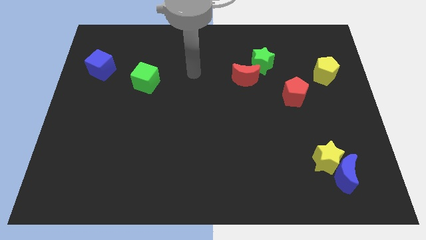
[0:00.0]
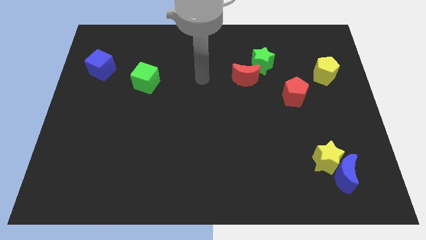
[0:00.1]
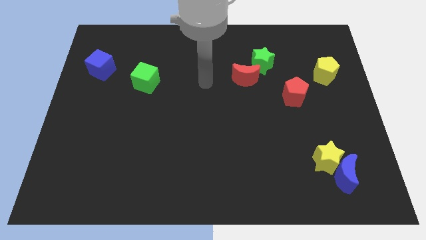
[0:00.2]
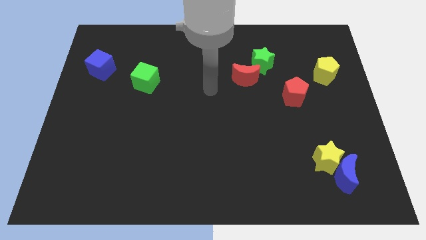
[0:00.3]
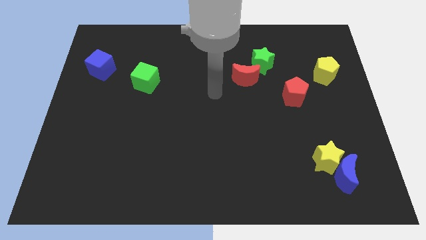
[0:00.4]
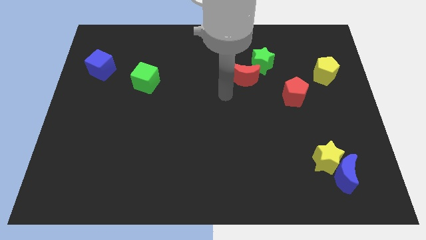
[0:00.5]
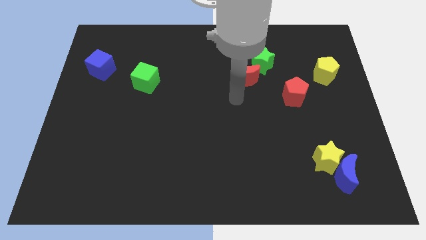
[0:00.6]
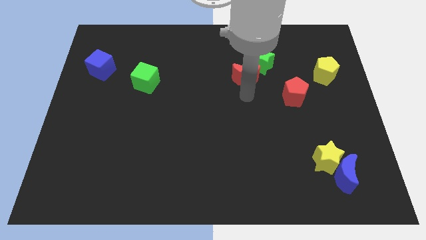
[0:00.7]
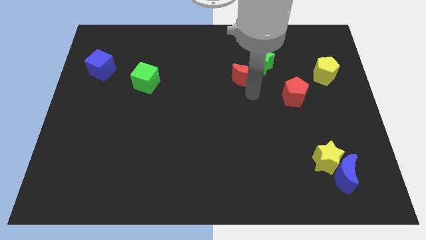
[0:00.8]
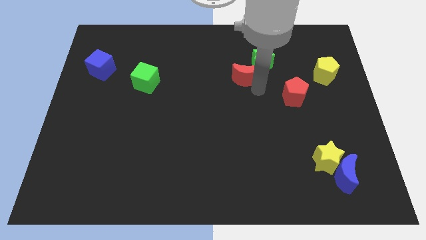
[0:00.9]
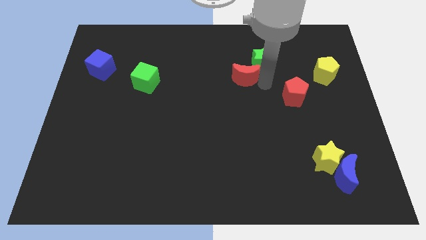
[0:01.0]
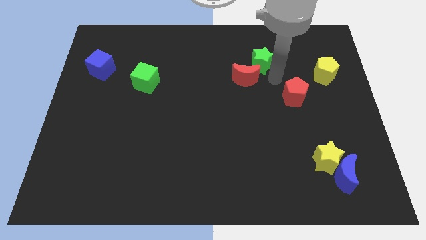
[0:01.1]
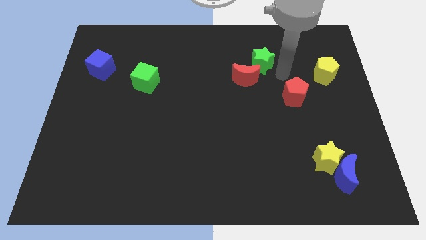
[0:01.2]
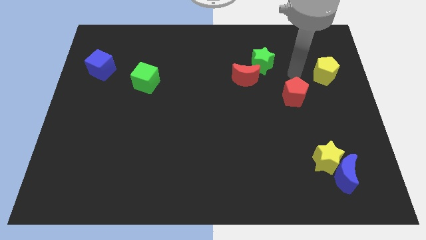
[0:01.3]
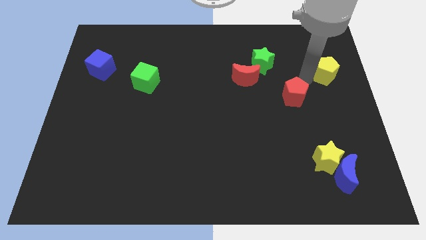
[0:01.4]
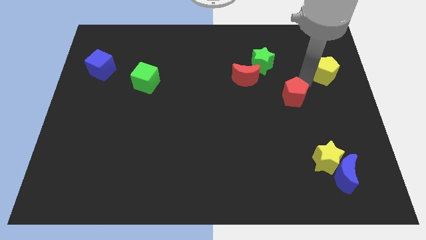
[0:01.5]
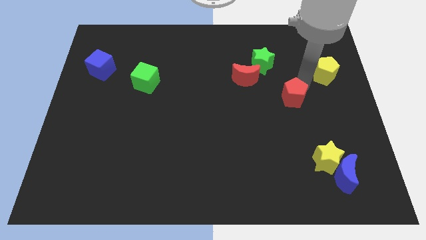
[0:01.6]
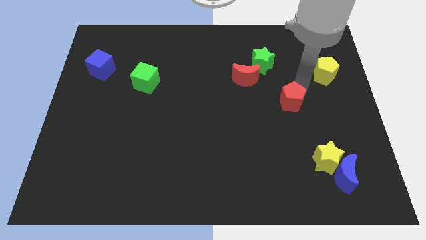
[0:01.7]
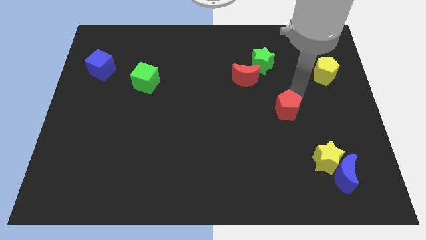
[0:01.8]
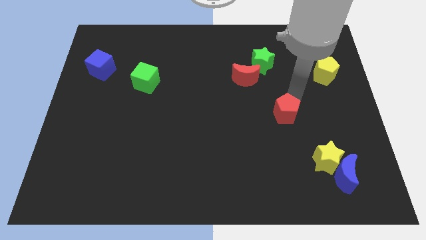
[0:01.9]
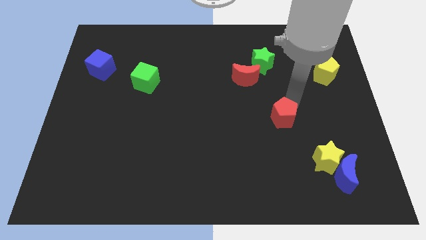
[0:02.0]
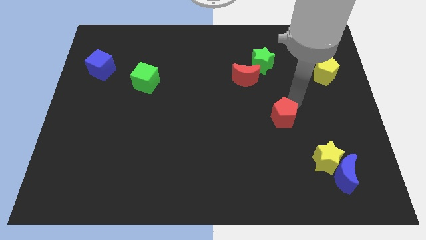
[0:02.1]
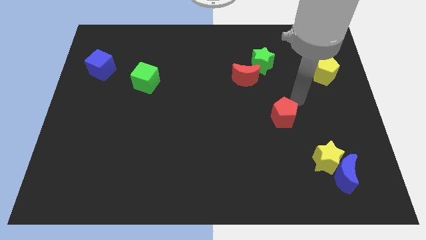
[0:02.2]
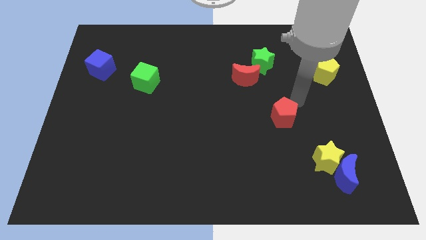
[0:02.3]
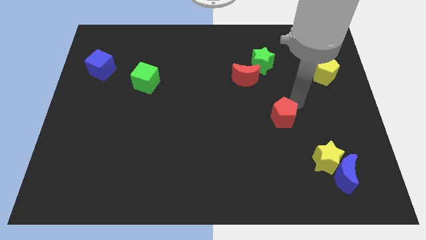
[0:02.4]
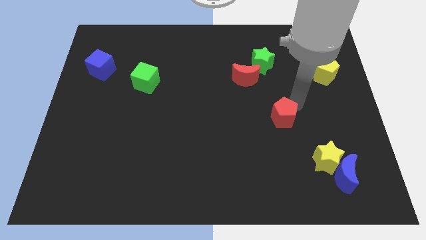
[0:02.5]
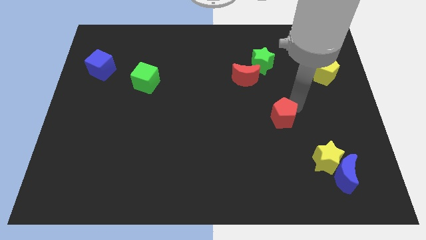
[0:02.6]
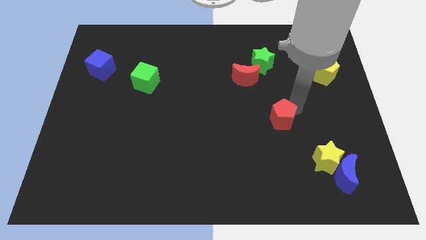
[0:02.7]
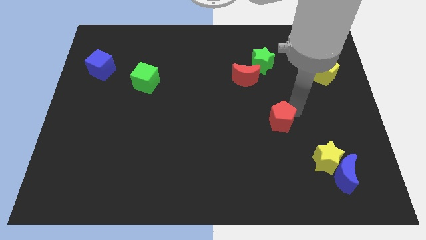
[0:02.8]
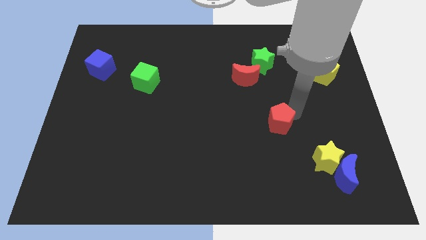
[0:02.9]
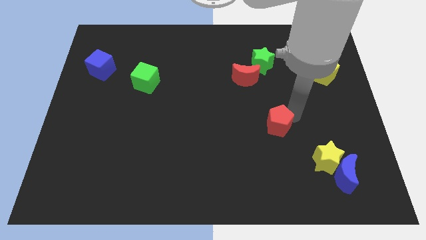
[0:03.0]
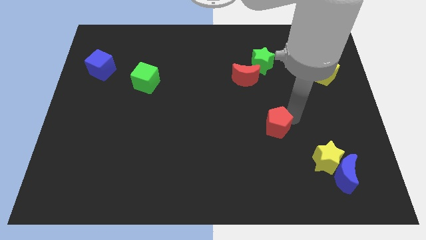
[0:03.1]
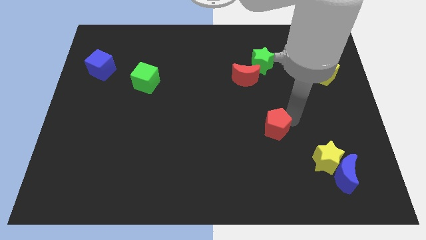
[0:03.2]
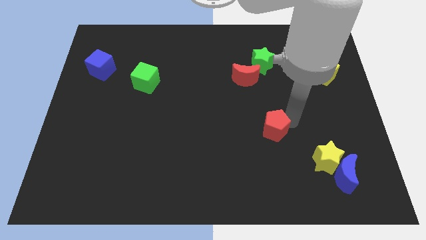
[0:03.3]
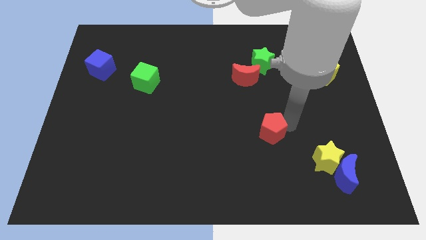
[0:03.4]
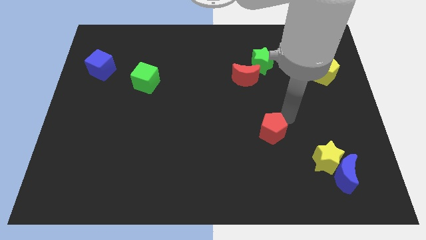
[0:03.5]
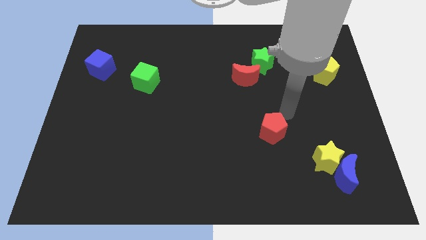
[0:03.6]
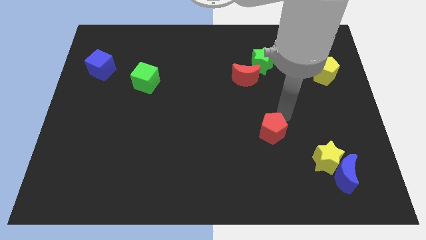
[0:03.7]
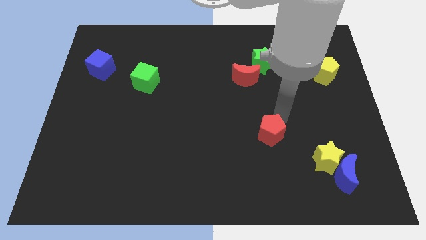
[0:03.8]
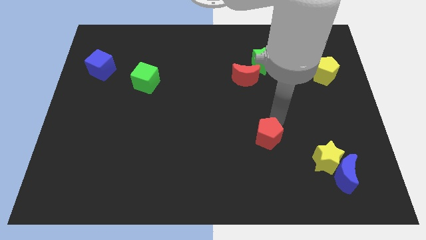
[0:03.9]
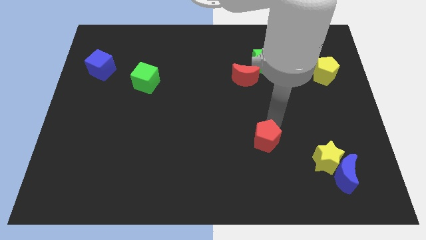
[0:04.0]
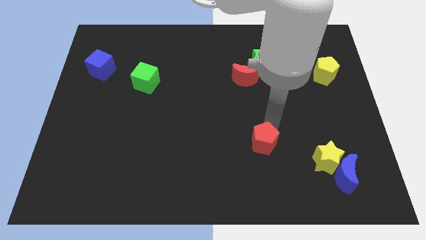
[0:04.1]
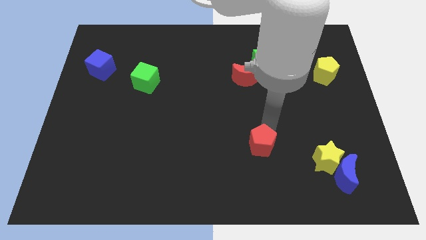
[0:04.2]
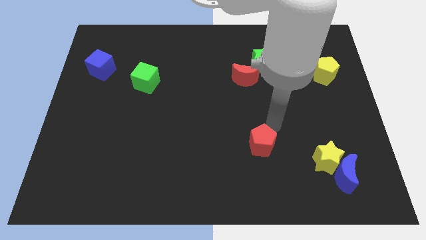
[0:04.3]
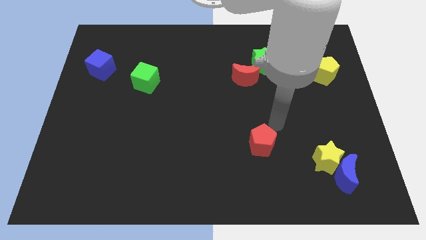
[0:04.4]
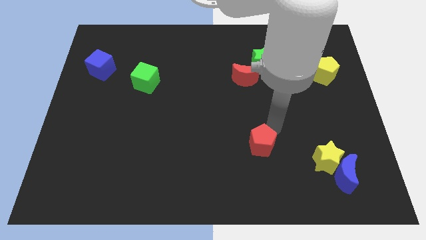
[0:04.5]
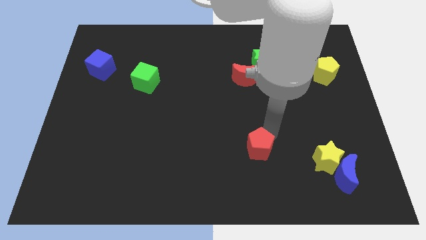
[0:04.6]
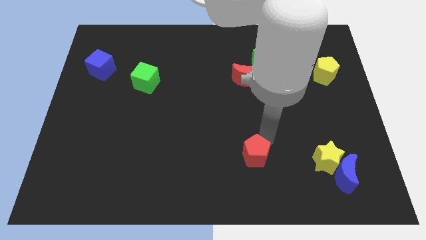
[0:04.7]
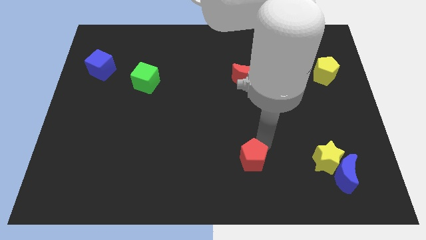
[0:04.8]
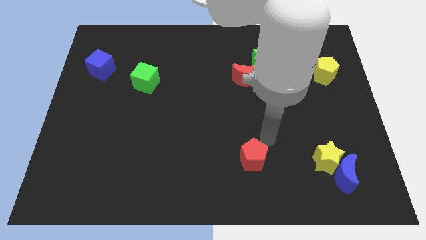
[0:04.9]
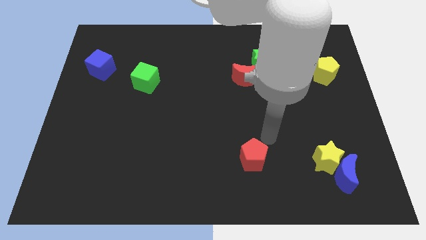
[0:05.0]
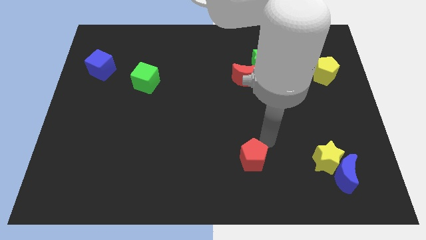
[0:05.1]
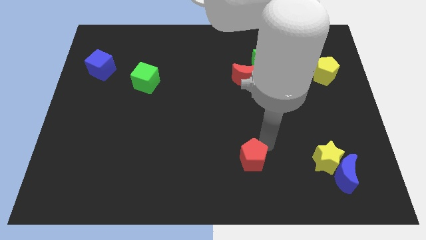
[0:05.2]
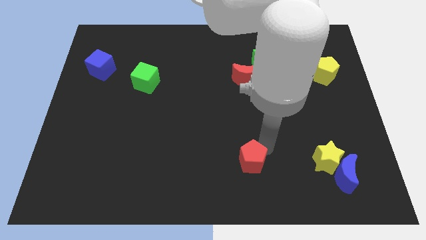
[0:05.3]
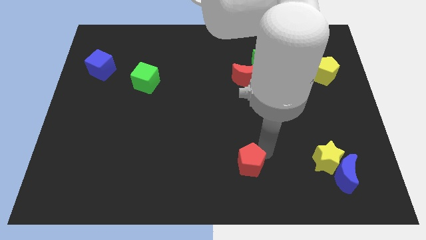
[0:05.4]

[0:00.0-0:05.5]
move the red pentagon to the bottom side
